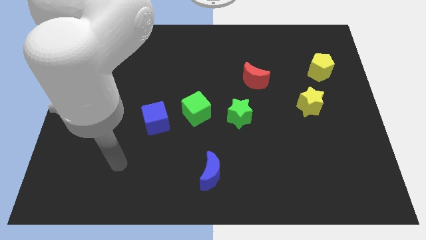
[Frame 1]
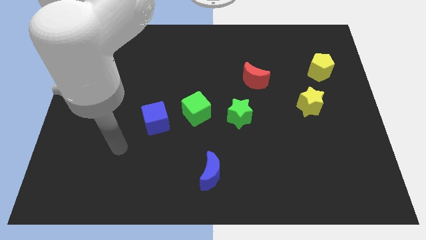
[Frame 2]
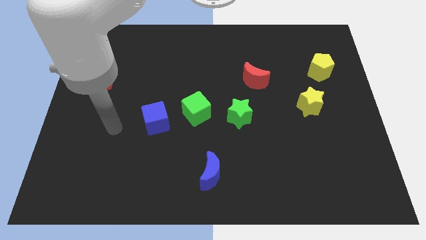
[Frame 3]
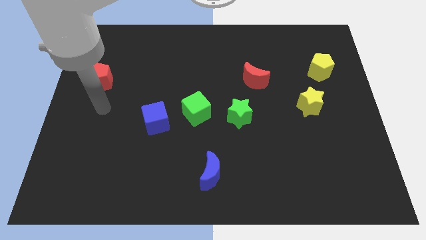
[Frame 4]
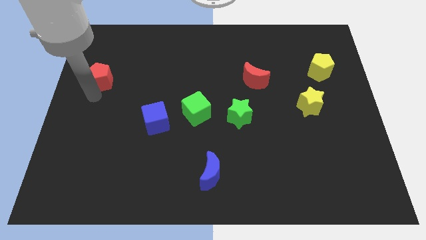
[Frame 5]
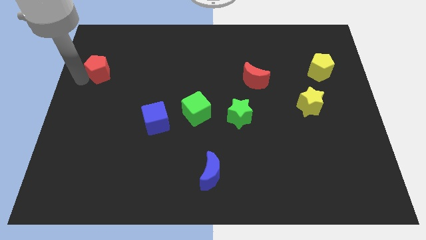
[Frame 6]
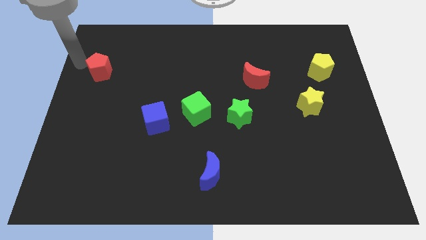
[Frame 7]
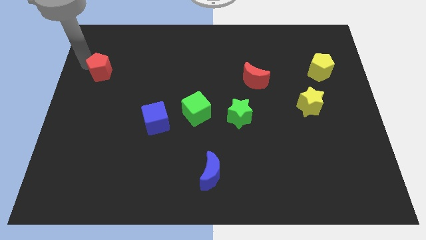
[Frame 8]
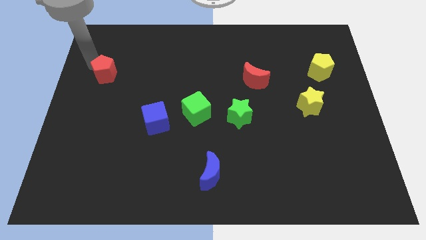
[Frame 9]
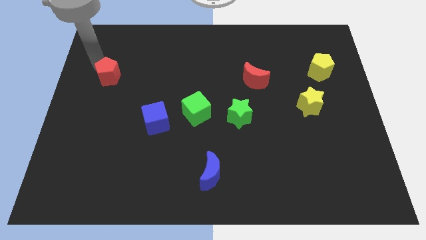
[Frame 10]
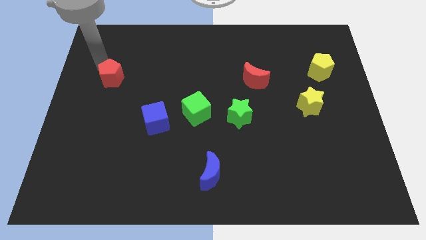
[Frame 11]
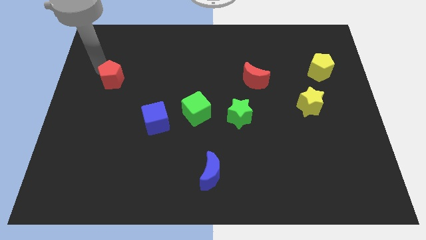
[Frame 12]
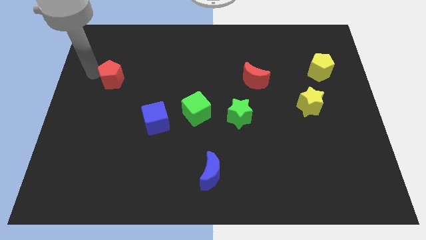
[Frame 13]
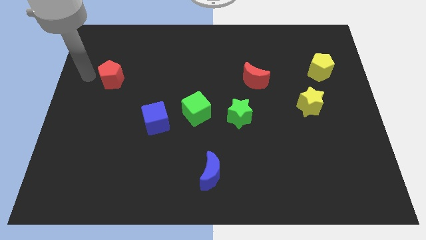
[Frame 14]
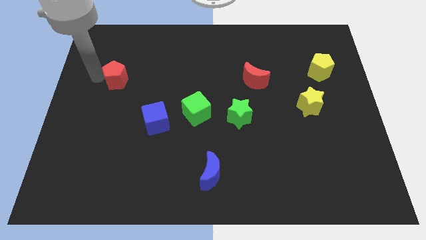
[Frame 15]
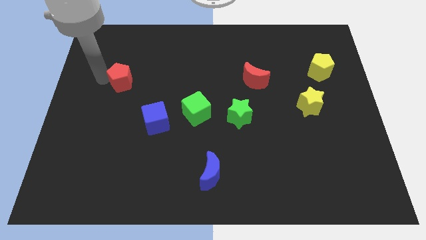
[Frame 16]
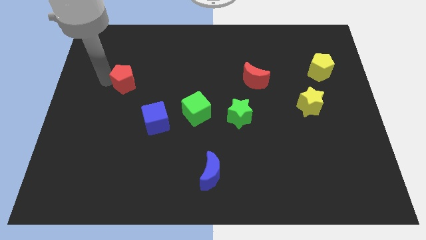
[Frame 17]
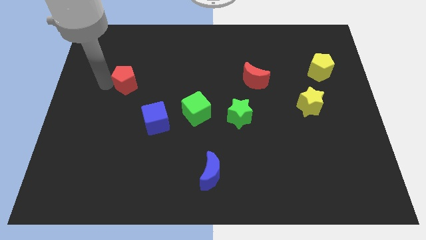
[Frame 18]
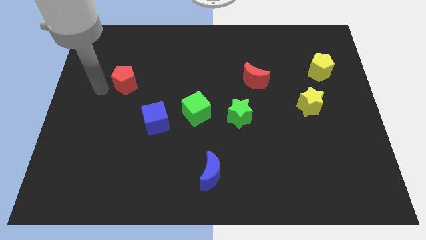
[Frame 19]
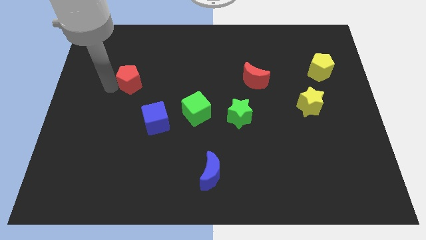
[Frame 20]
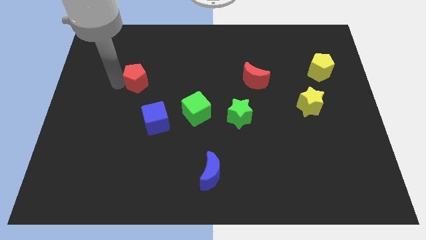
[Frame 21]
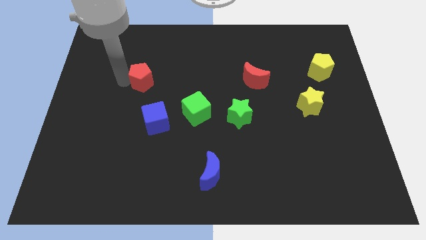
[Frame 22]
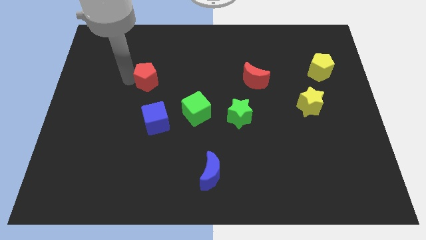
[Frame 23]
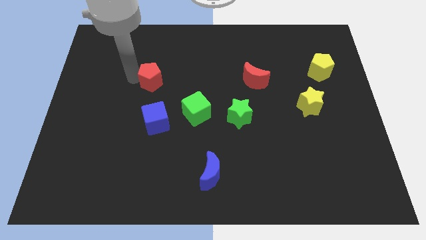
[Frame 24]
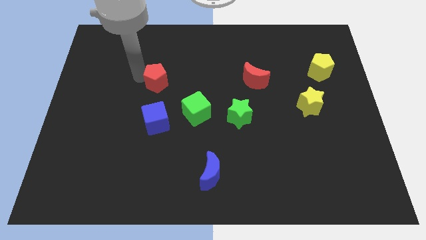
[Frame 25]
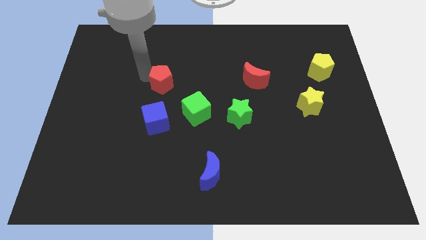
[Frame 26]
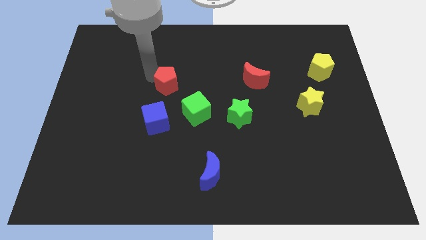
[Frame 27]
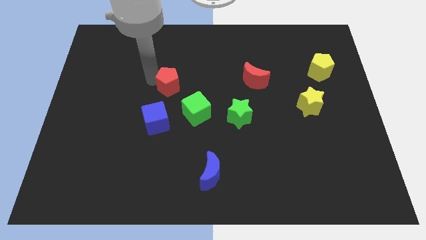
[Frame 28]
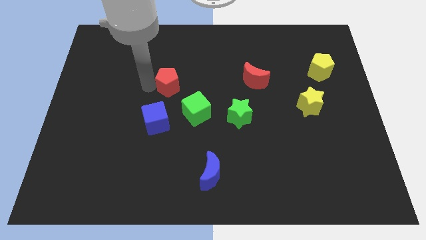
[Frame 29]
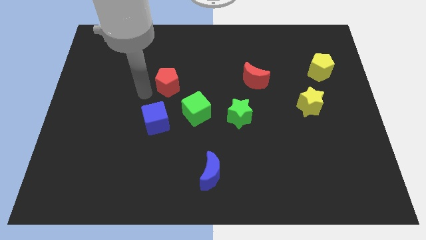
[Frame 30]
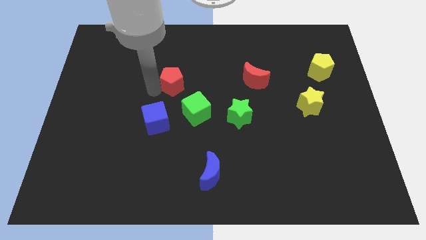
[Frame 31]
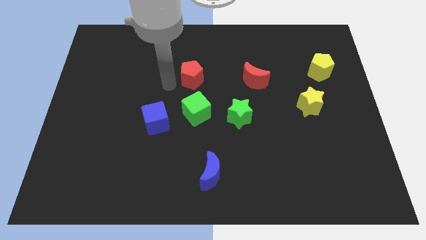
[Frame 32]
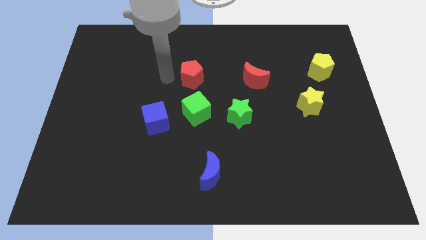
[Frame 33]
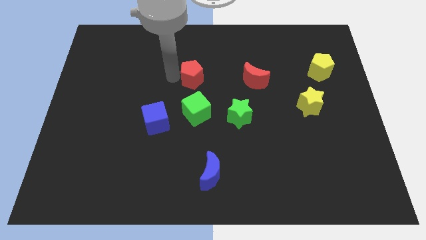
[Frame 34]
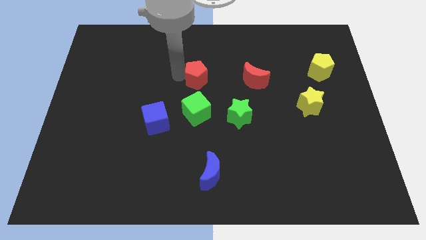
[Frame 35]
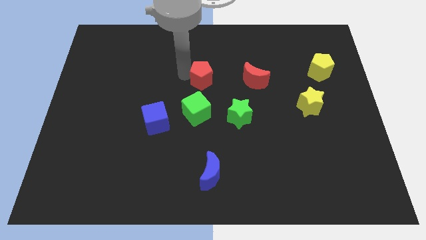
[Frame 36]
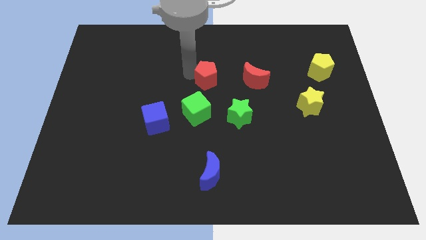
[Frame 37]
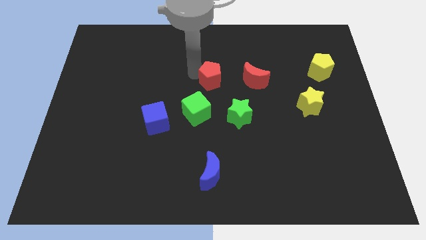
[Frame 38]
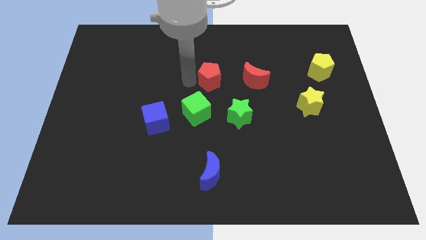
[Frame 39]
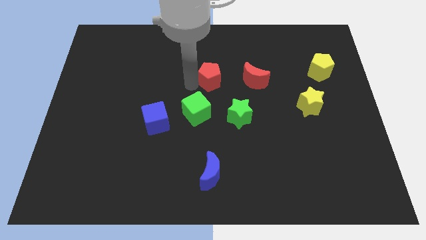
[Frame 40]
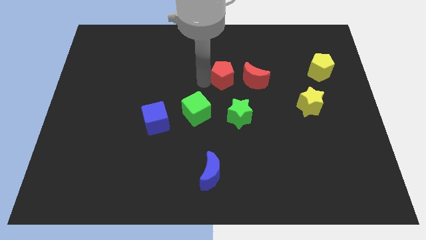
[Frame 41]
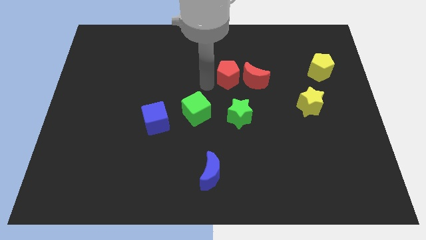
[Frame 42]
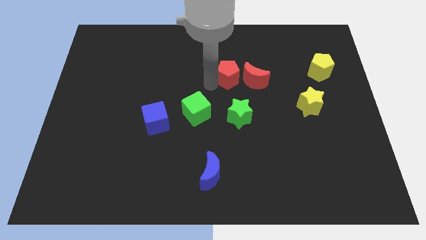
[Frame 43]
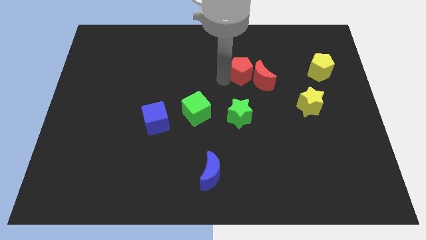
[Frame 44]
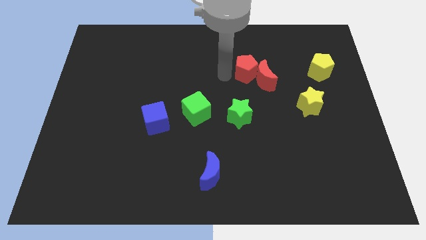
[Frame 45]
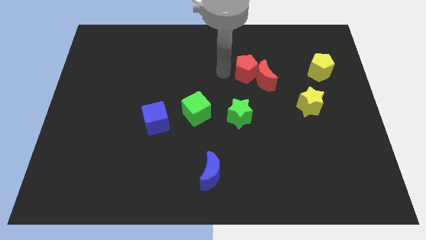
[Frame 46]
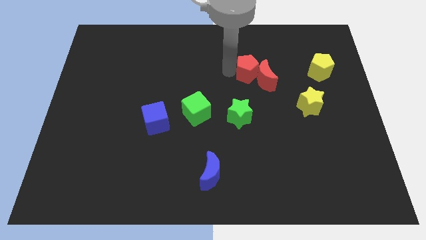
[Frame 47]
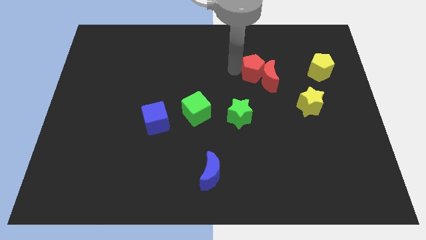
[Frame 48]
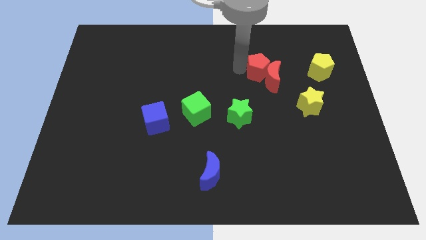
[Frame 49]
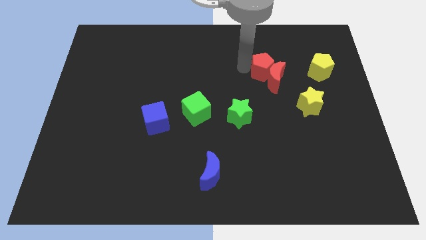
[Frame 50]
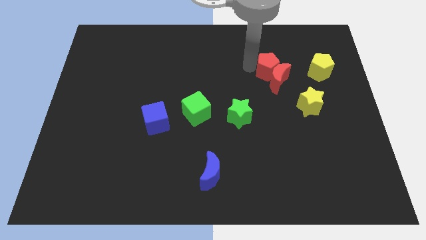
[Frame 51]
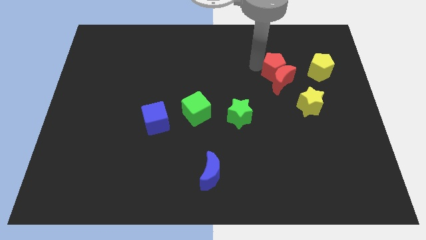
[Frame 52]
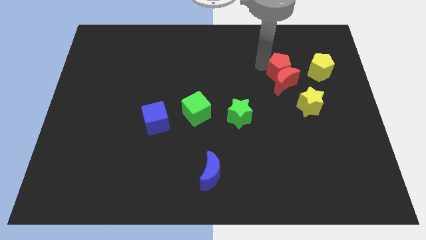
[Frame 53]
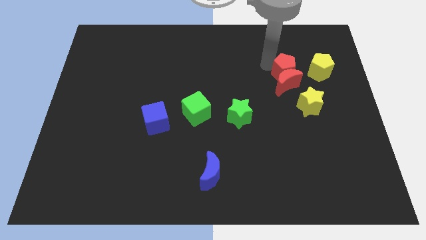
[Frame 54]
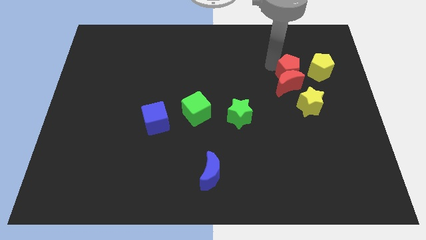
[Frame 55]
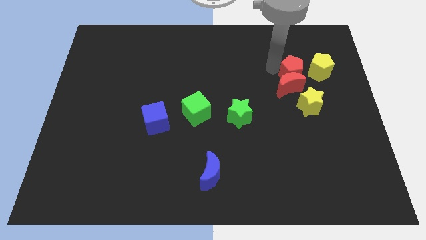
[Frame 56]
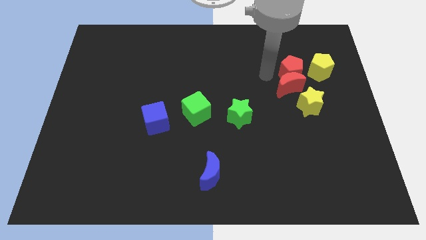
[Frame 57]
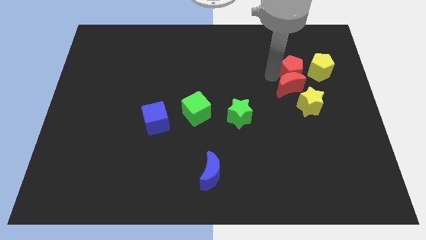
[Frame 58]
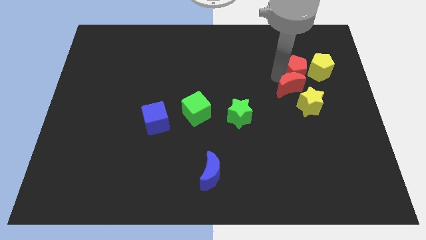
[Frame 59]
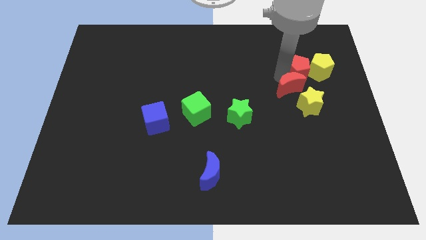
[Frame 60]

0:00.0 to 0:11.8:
move the red pentagon to the yellow pentagon

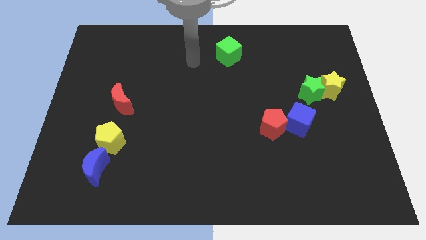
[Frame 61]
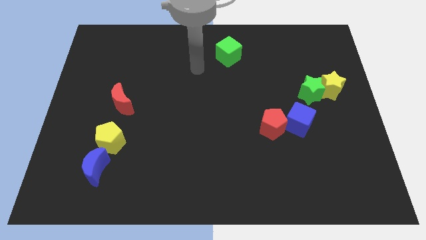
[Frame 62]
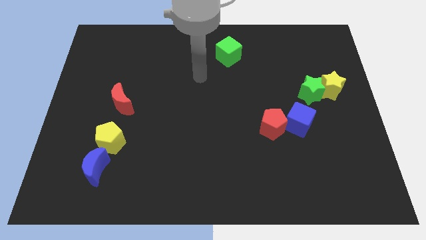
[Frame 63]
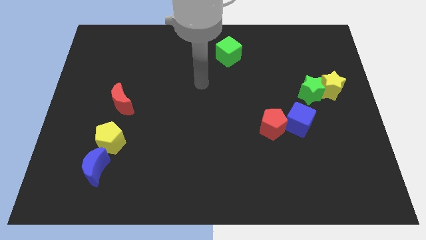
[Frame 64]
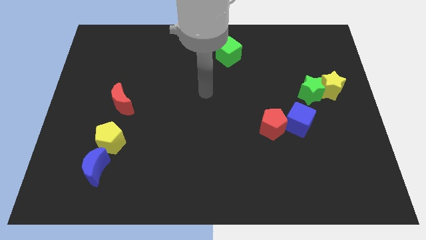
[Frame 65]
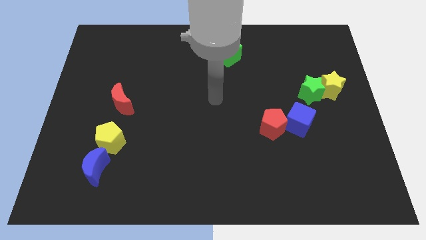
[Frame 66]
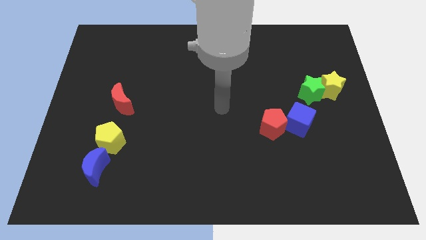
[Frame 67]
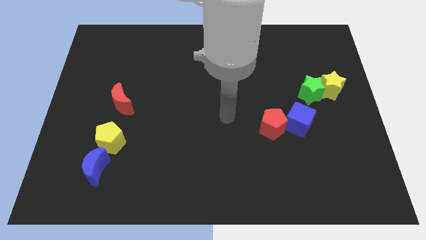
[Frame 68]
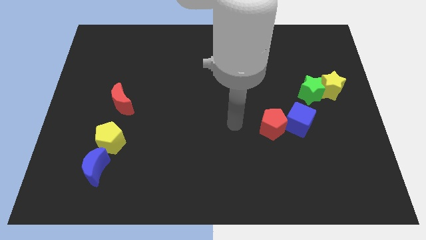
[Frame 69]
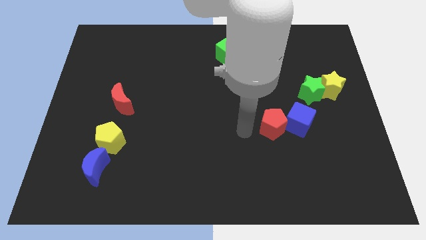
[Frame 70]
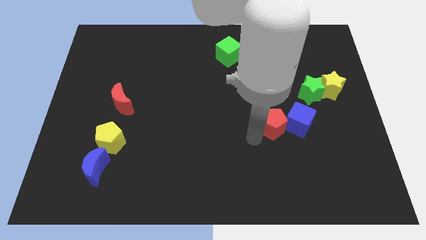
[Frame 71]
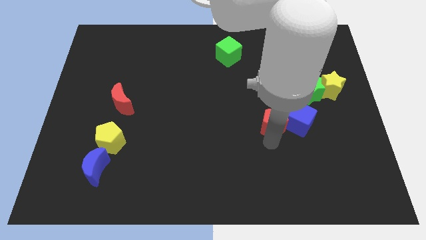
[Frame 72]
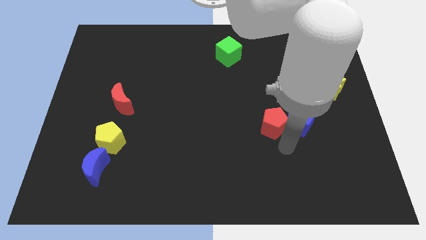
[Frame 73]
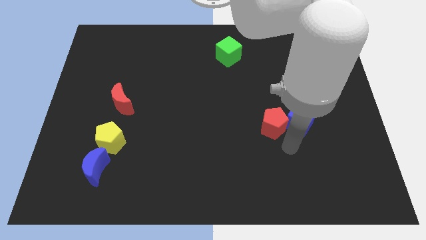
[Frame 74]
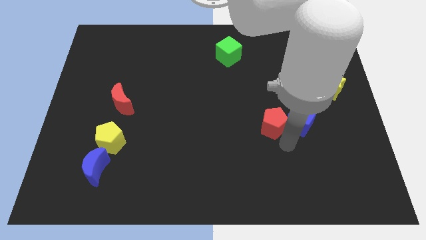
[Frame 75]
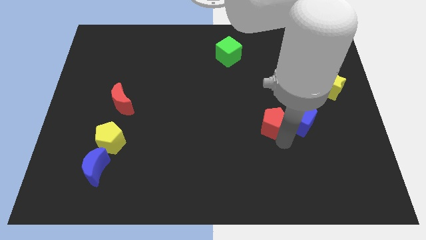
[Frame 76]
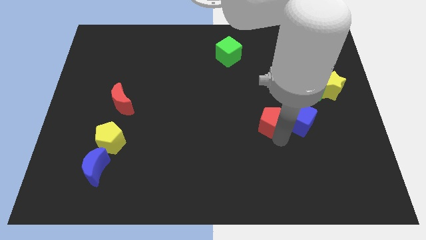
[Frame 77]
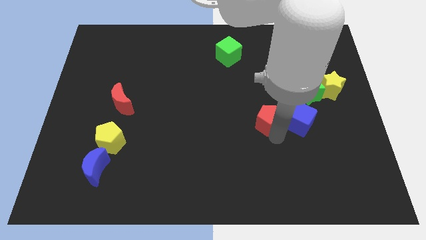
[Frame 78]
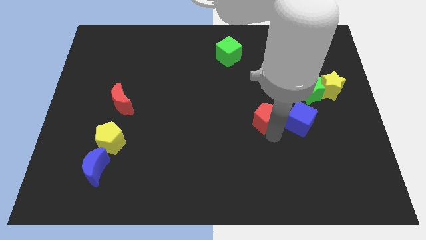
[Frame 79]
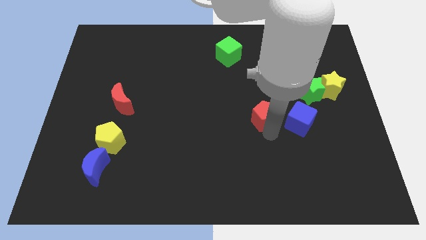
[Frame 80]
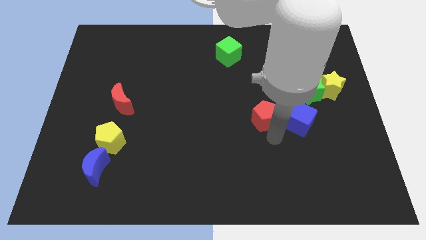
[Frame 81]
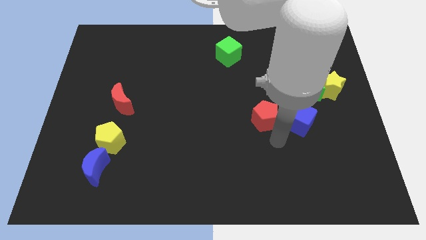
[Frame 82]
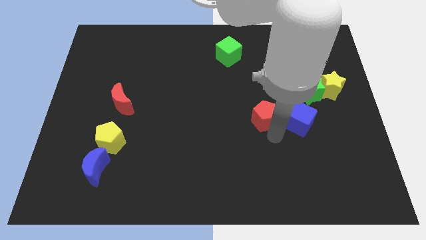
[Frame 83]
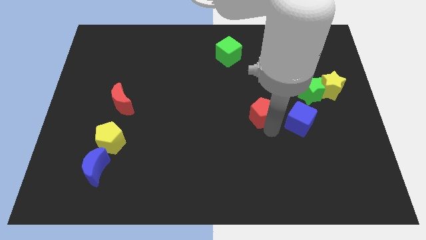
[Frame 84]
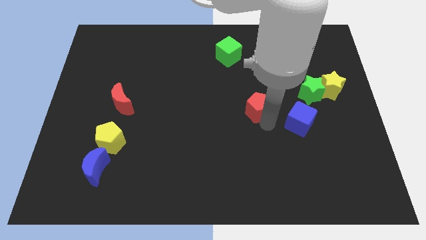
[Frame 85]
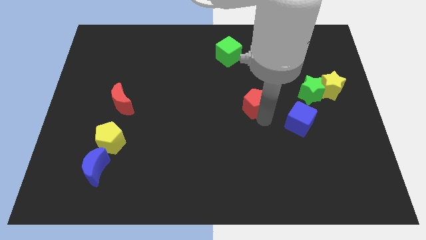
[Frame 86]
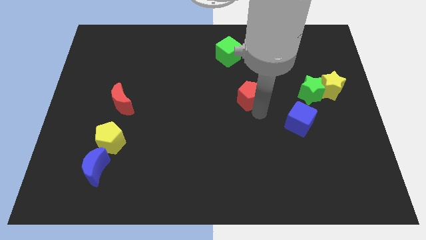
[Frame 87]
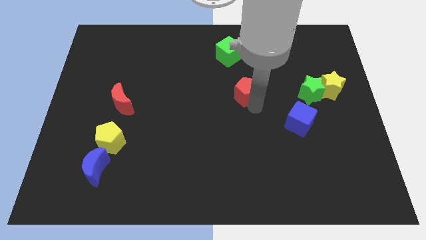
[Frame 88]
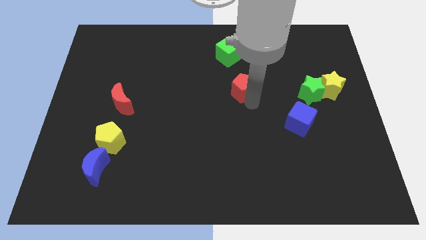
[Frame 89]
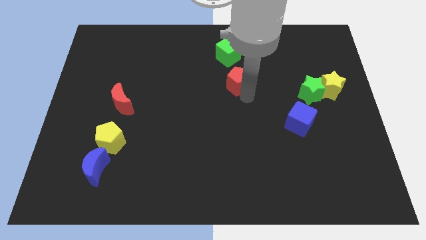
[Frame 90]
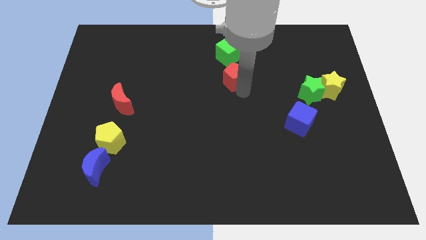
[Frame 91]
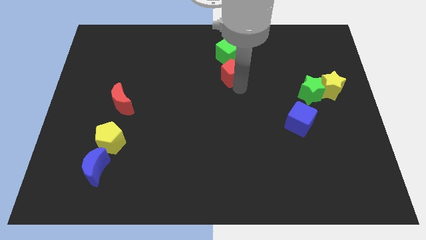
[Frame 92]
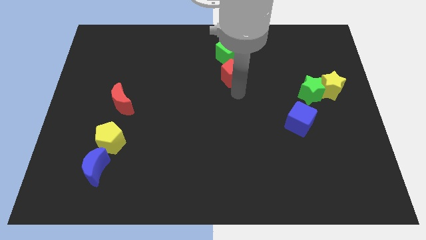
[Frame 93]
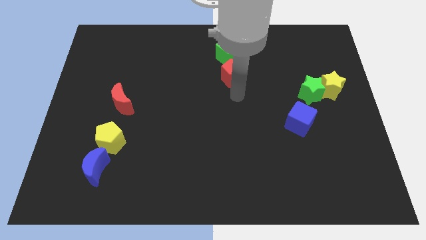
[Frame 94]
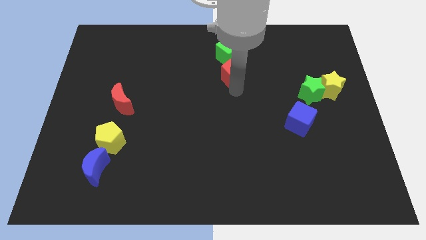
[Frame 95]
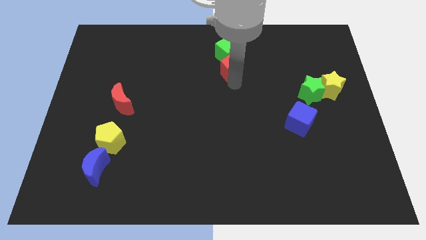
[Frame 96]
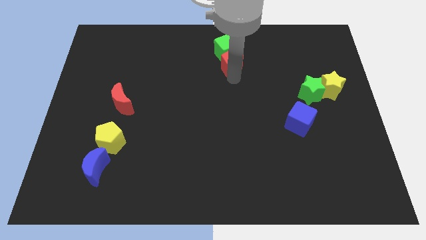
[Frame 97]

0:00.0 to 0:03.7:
slide the red pentagon close to the green cube
